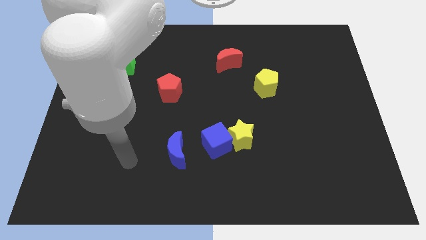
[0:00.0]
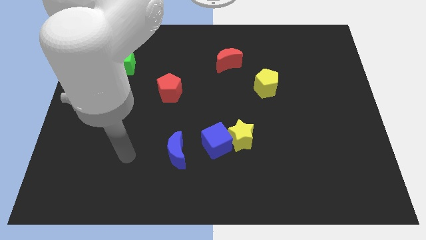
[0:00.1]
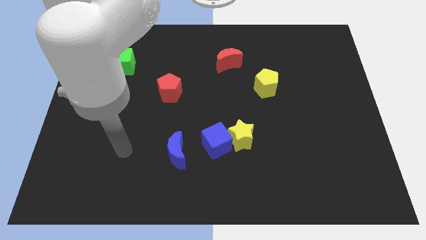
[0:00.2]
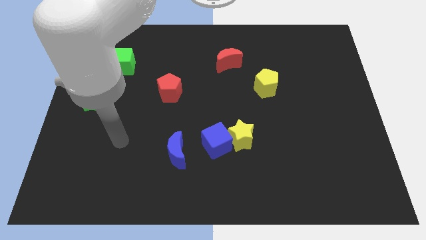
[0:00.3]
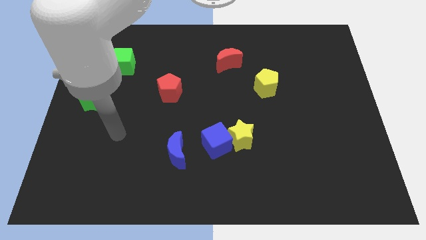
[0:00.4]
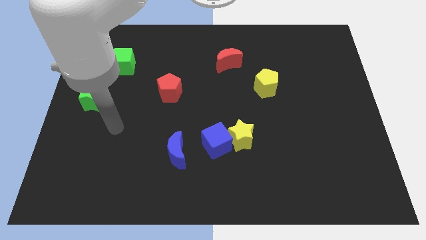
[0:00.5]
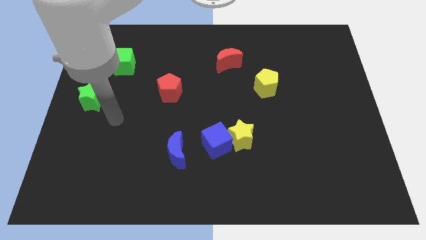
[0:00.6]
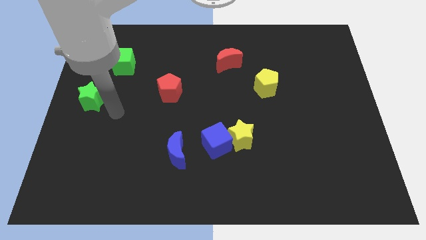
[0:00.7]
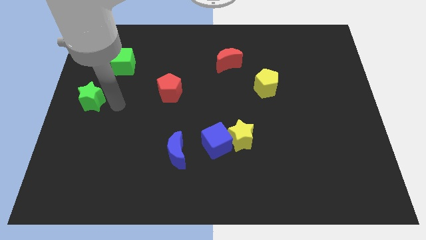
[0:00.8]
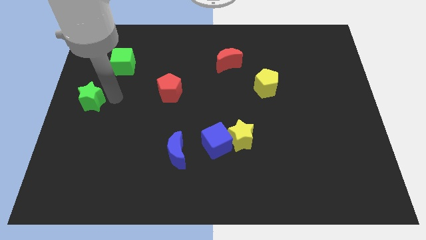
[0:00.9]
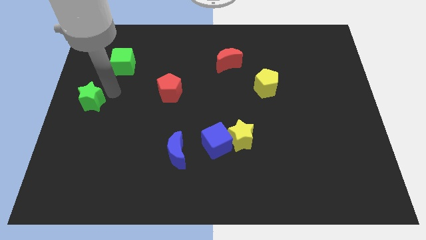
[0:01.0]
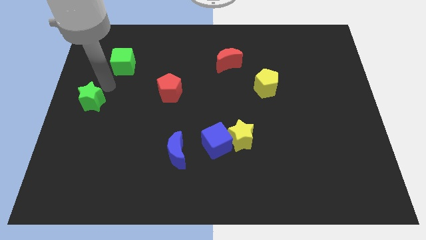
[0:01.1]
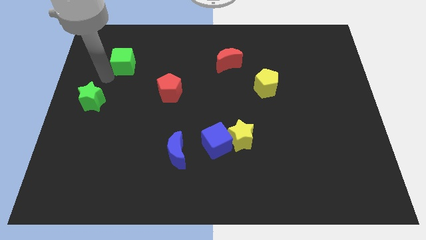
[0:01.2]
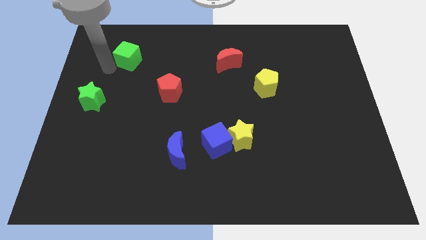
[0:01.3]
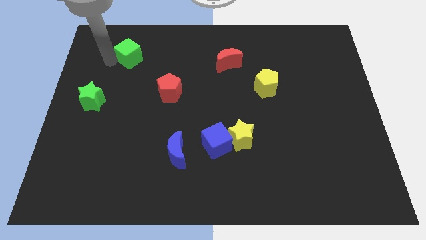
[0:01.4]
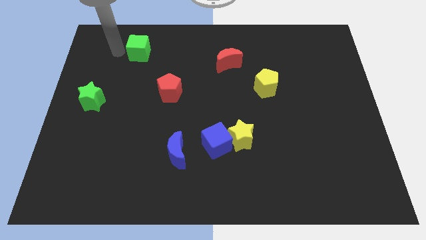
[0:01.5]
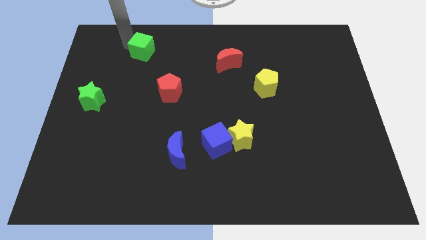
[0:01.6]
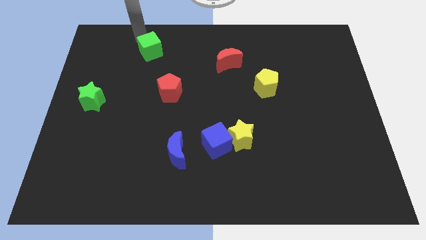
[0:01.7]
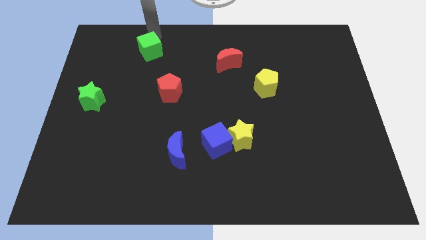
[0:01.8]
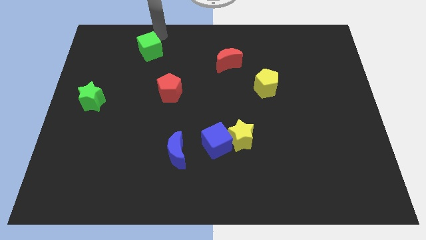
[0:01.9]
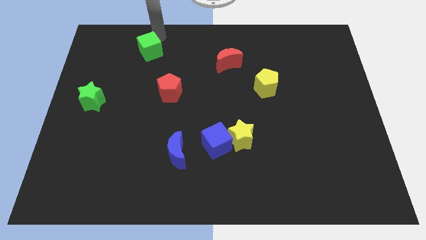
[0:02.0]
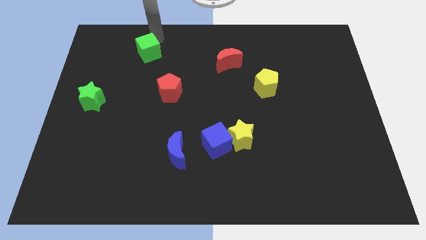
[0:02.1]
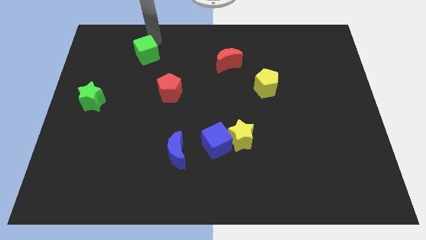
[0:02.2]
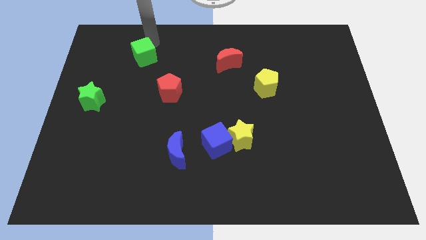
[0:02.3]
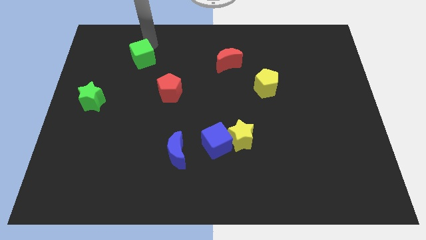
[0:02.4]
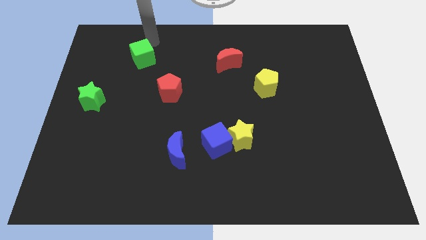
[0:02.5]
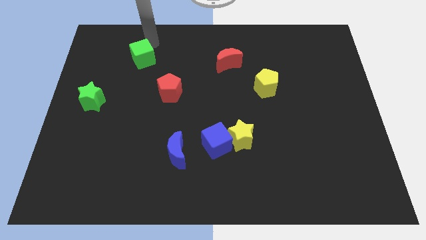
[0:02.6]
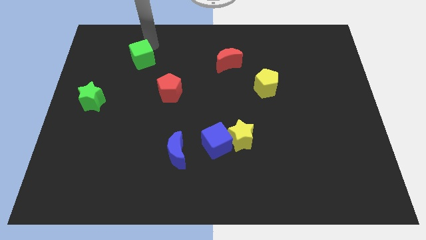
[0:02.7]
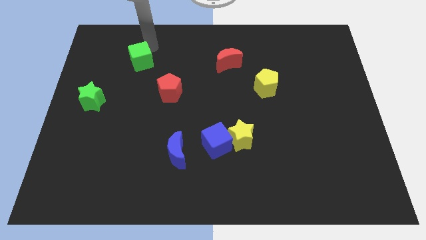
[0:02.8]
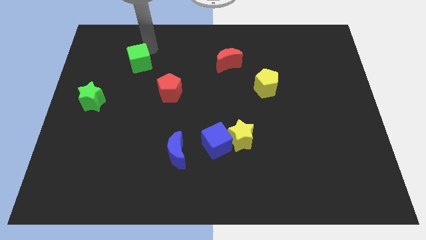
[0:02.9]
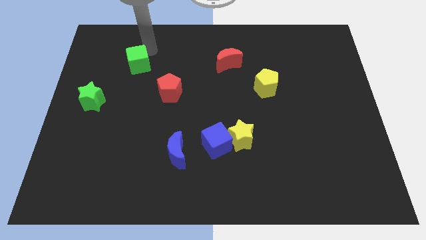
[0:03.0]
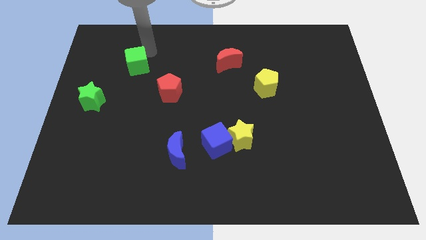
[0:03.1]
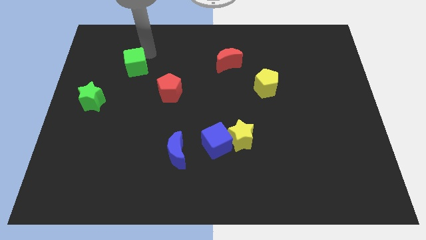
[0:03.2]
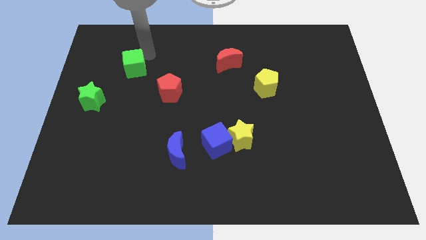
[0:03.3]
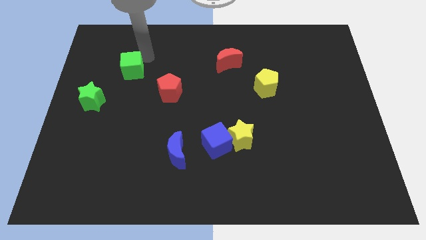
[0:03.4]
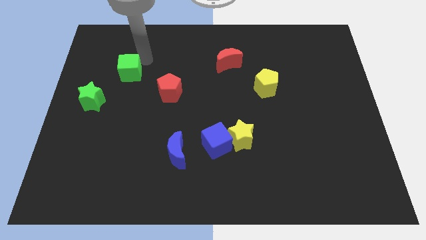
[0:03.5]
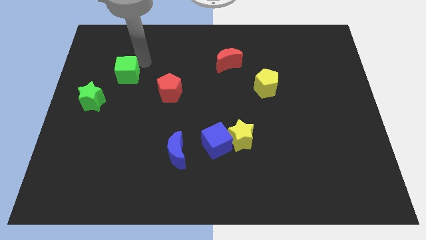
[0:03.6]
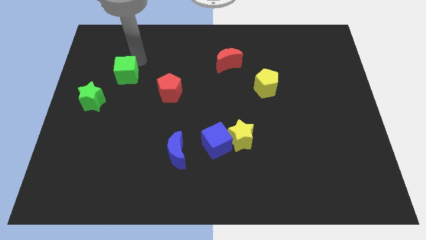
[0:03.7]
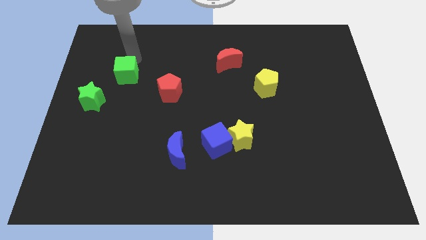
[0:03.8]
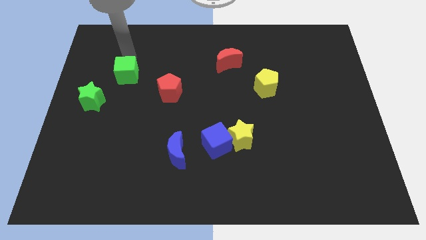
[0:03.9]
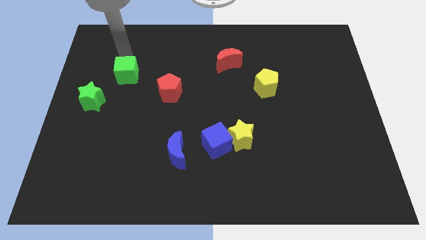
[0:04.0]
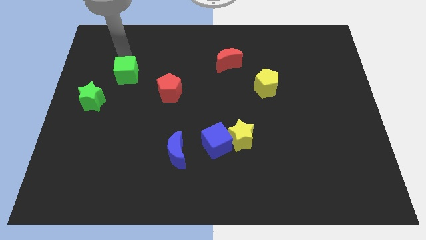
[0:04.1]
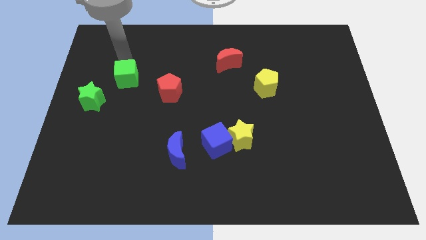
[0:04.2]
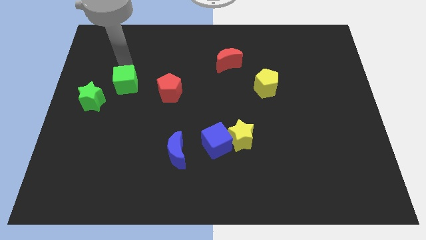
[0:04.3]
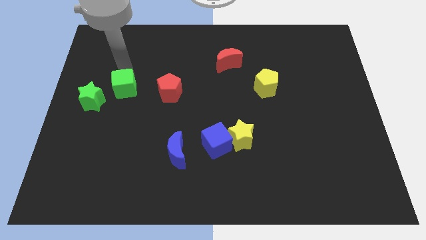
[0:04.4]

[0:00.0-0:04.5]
slide the green cube a little bit downwards

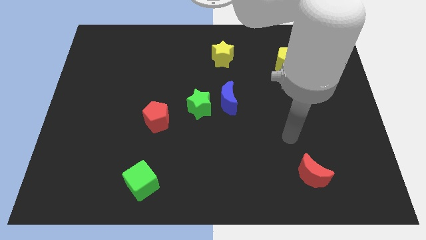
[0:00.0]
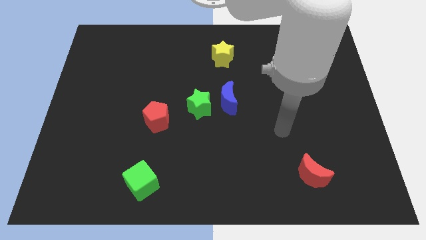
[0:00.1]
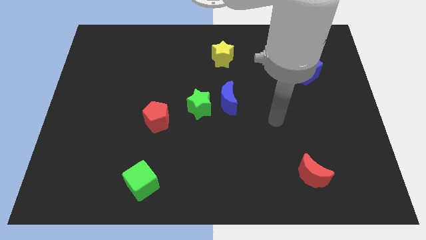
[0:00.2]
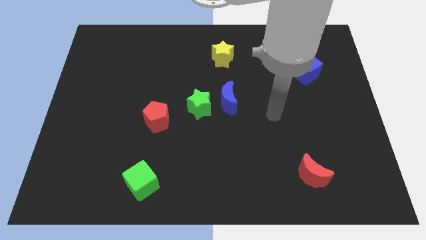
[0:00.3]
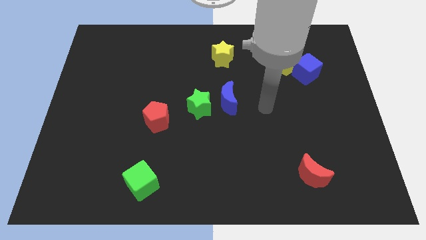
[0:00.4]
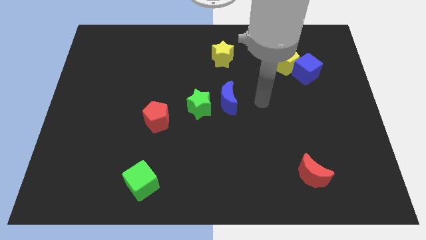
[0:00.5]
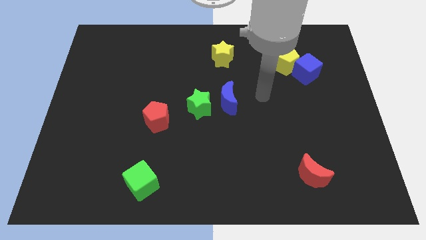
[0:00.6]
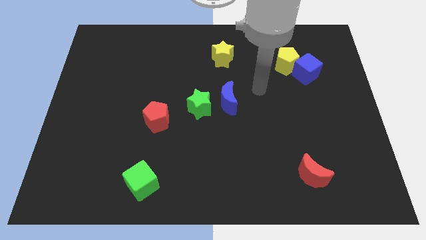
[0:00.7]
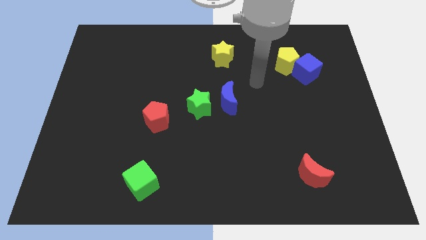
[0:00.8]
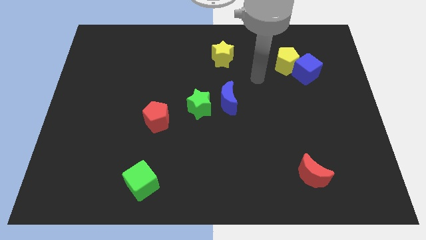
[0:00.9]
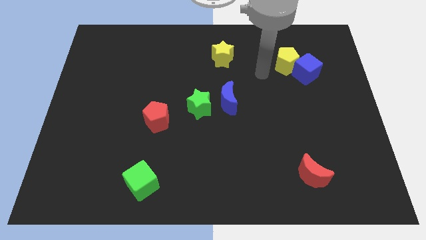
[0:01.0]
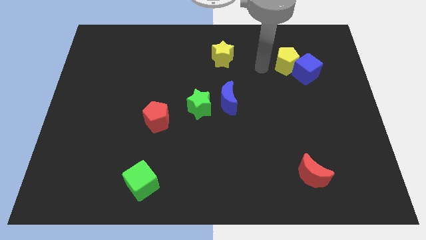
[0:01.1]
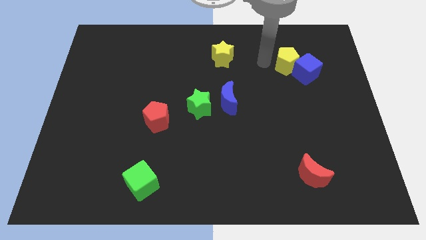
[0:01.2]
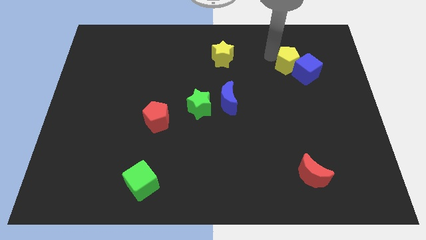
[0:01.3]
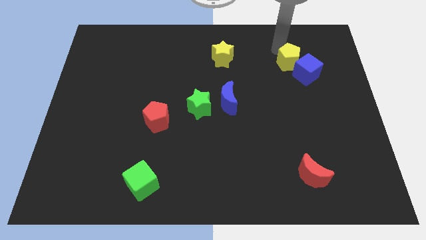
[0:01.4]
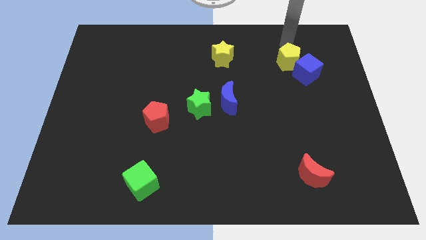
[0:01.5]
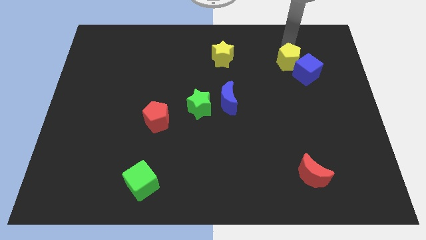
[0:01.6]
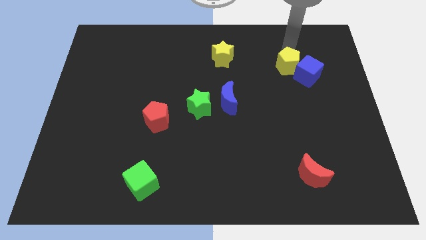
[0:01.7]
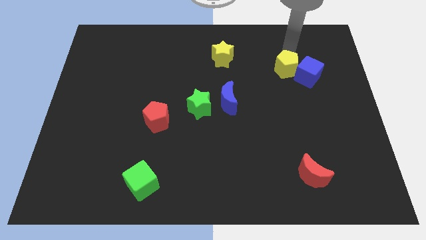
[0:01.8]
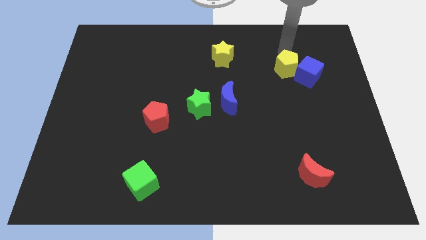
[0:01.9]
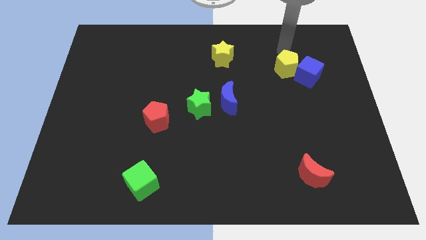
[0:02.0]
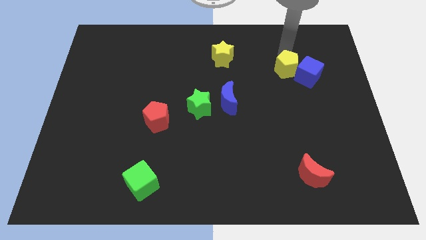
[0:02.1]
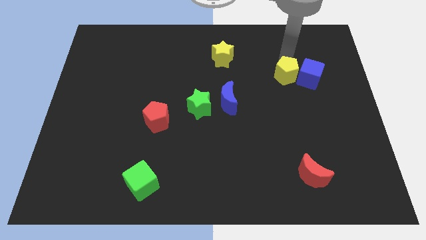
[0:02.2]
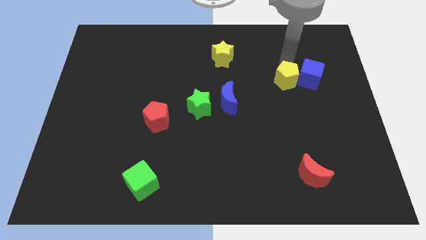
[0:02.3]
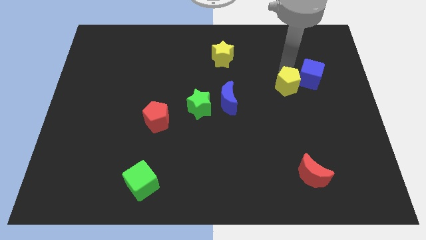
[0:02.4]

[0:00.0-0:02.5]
slide the yellow pentagon a bit downwards

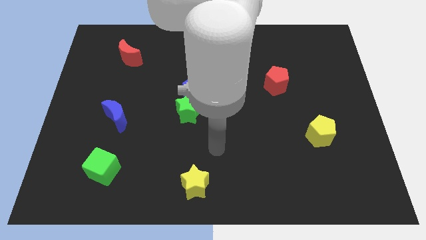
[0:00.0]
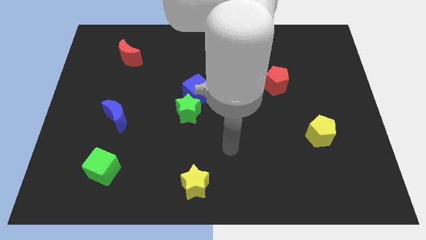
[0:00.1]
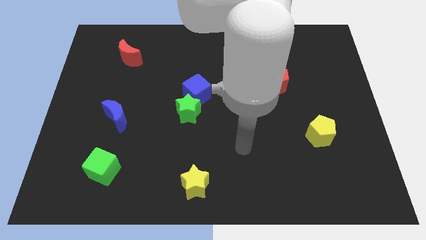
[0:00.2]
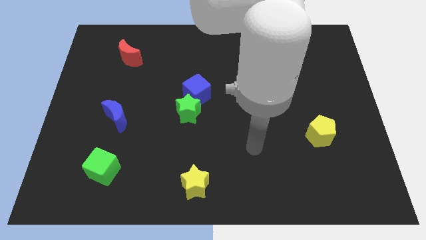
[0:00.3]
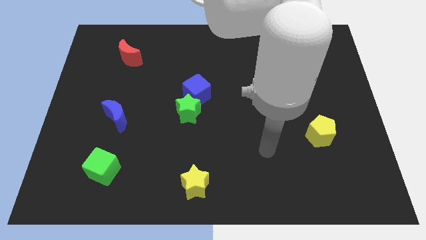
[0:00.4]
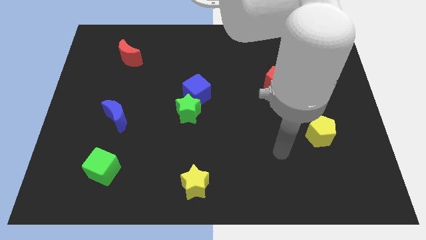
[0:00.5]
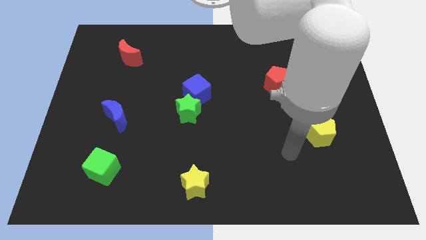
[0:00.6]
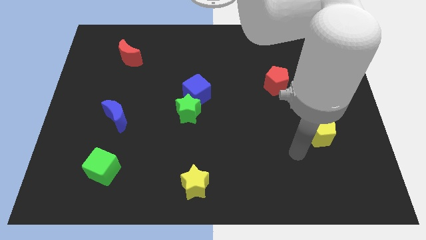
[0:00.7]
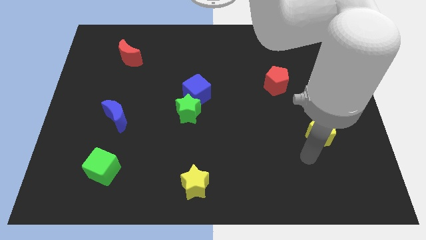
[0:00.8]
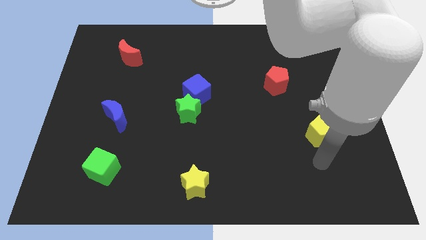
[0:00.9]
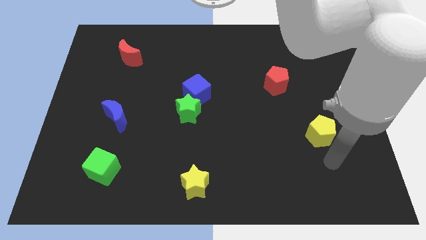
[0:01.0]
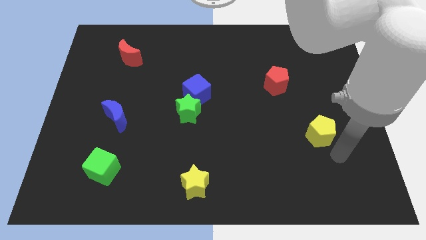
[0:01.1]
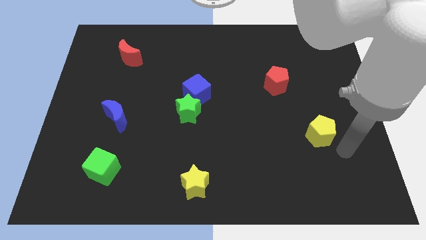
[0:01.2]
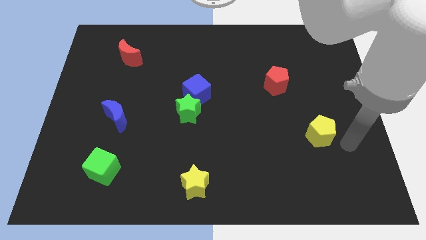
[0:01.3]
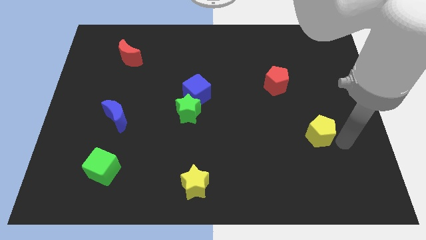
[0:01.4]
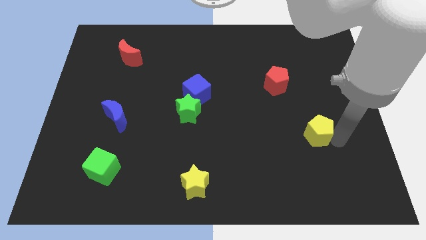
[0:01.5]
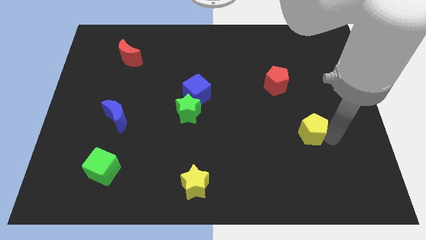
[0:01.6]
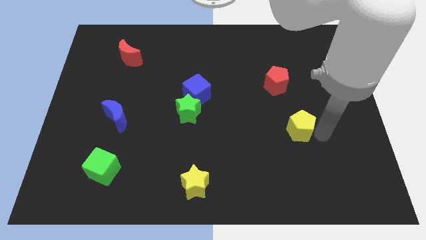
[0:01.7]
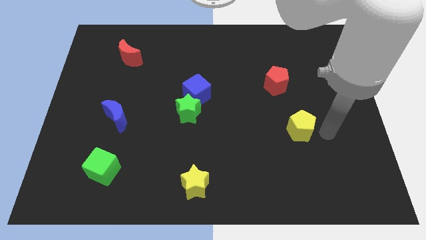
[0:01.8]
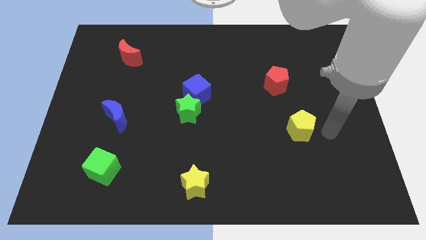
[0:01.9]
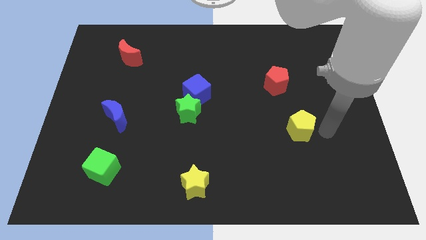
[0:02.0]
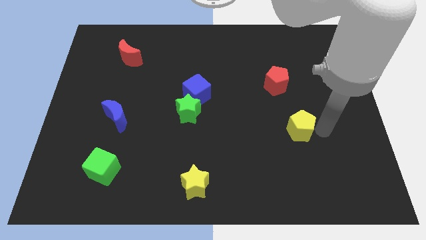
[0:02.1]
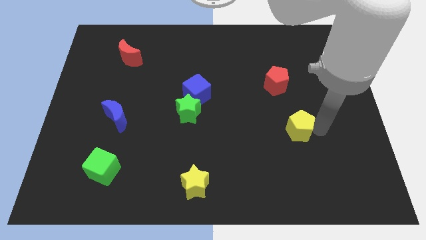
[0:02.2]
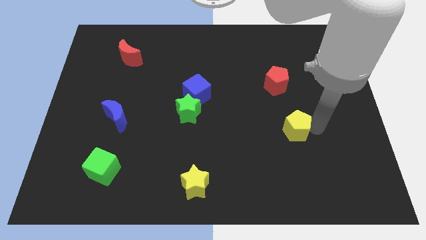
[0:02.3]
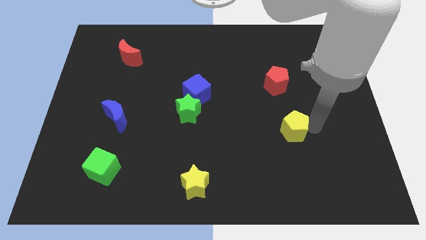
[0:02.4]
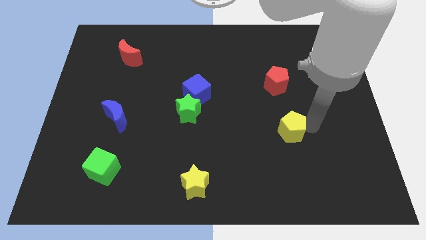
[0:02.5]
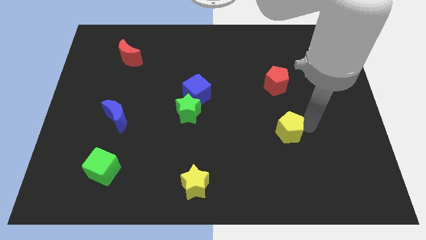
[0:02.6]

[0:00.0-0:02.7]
slightly move the yellow pentagon left
